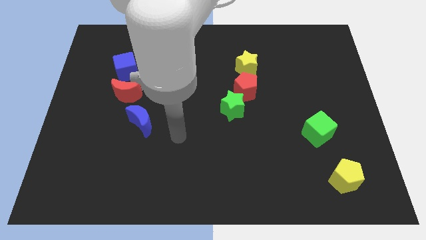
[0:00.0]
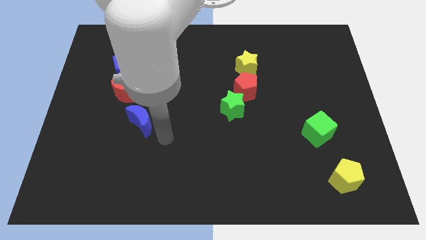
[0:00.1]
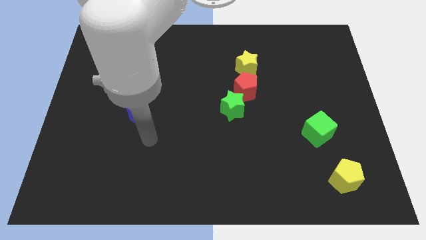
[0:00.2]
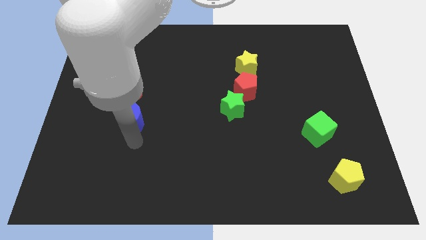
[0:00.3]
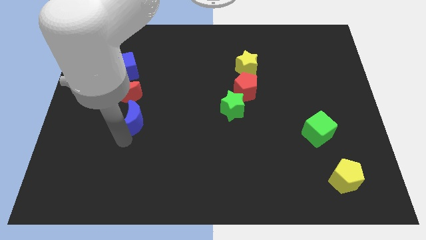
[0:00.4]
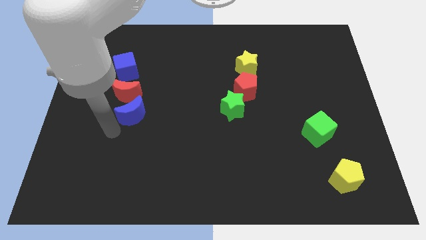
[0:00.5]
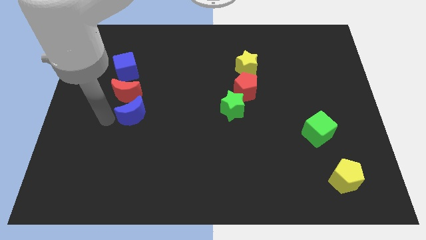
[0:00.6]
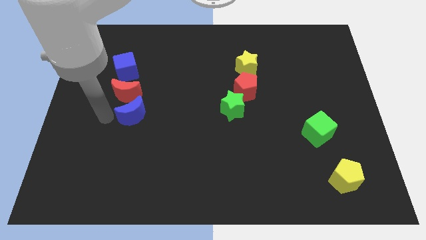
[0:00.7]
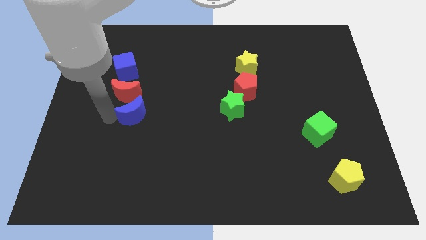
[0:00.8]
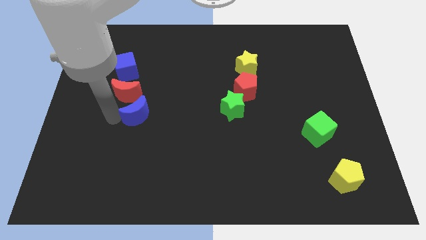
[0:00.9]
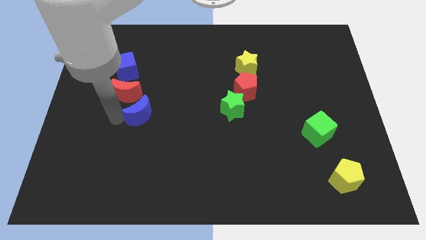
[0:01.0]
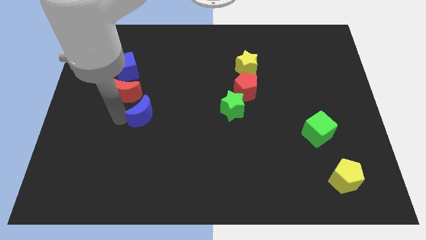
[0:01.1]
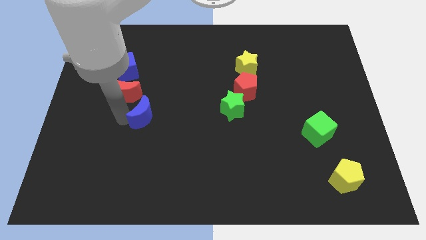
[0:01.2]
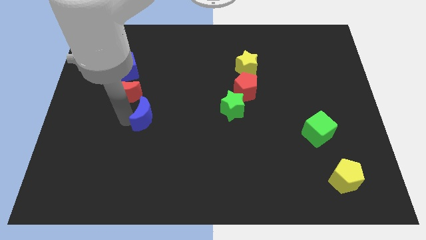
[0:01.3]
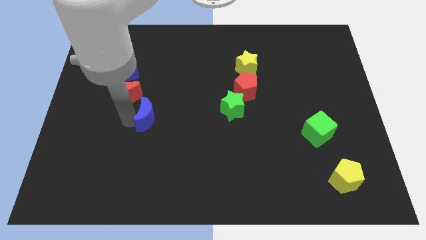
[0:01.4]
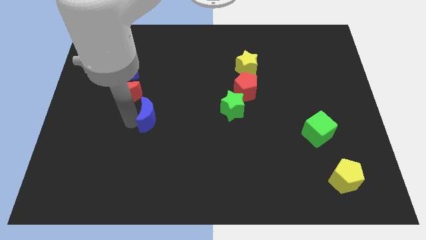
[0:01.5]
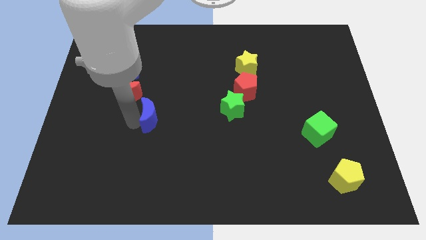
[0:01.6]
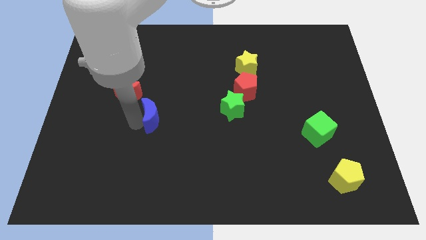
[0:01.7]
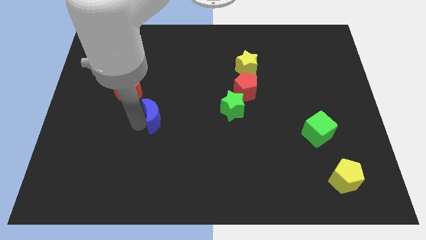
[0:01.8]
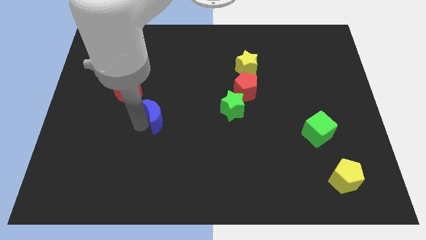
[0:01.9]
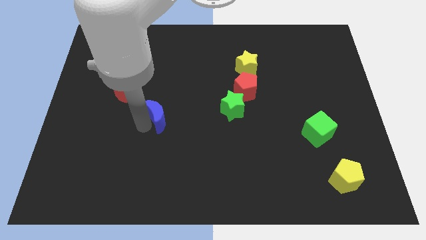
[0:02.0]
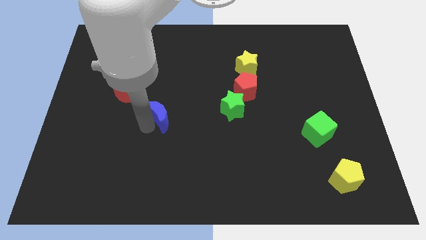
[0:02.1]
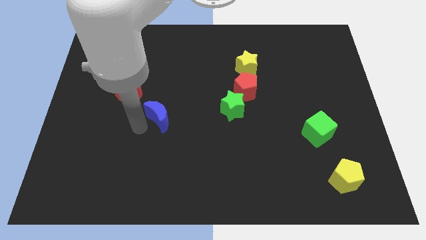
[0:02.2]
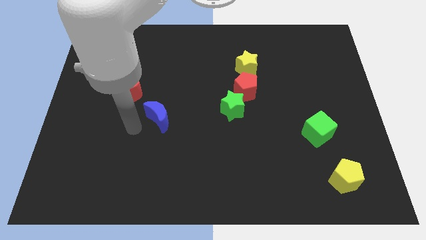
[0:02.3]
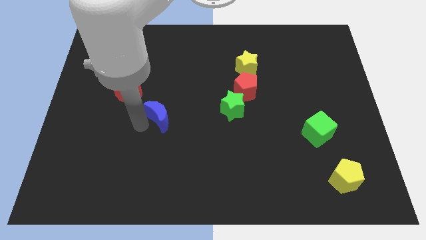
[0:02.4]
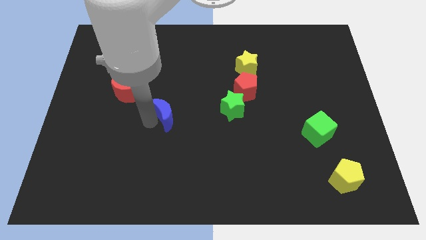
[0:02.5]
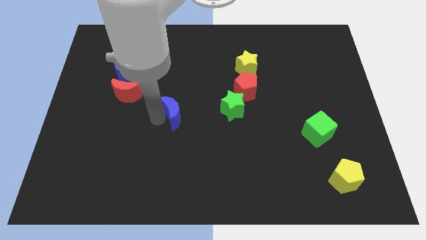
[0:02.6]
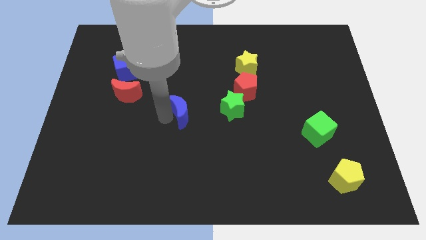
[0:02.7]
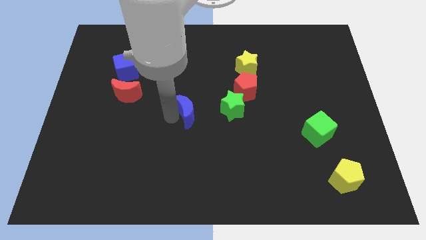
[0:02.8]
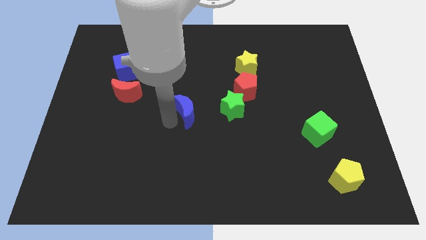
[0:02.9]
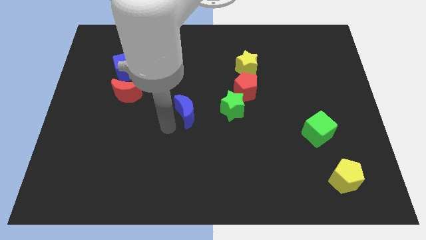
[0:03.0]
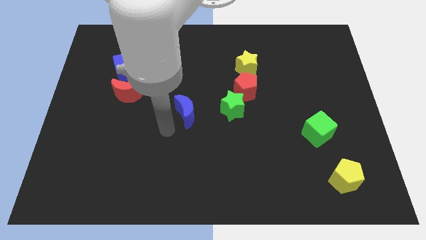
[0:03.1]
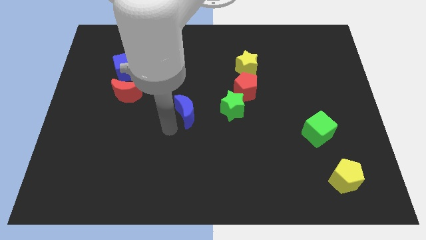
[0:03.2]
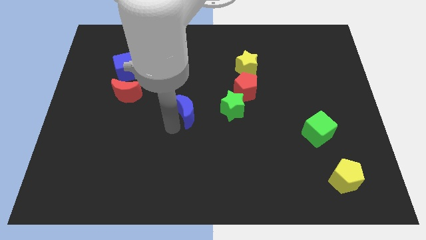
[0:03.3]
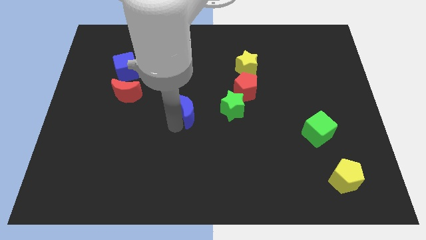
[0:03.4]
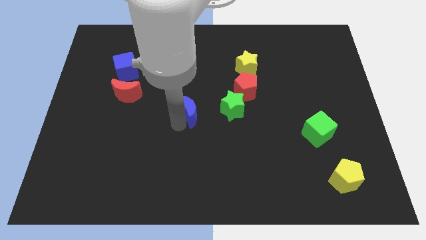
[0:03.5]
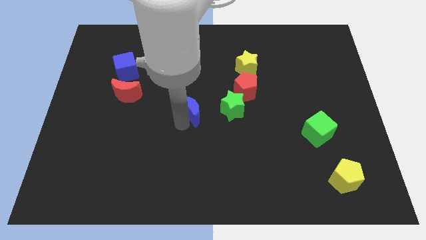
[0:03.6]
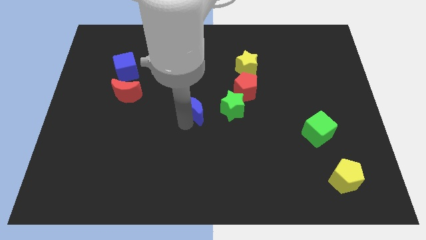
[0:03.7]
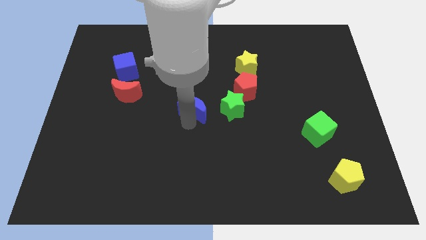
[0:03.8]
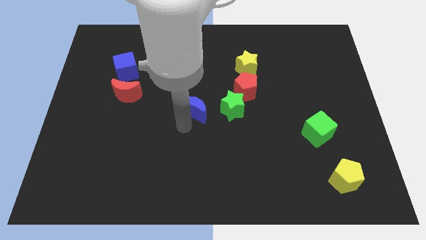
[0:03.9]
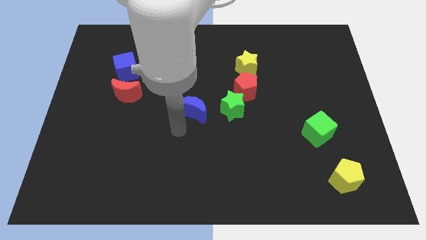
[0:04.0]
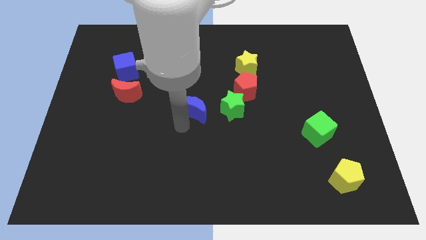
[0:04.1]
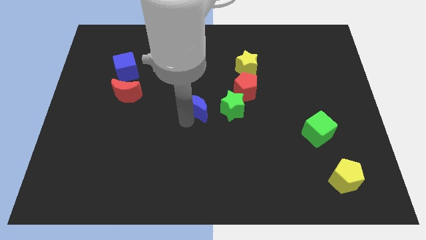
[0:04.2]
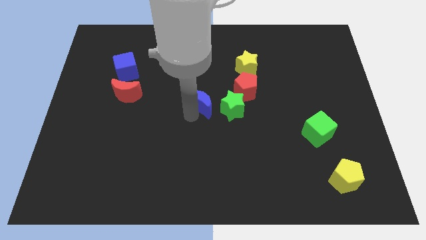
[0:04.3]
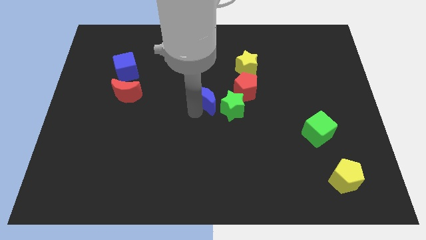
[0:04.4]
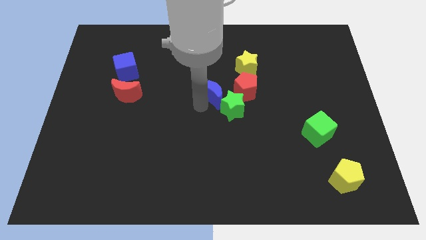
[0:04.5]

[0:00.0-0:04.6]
slide the blue moon diagonally down and to the left of the yellow star

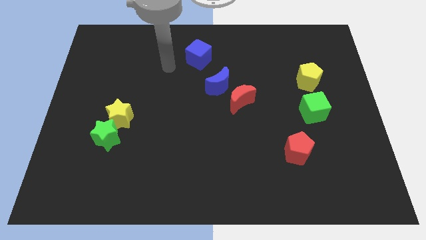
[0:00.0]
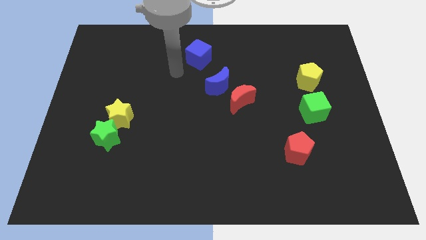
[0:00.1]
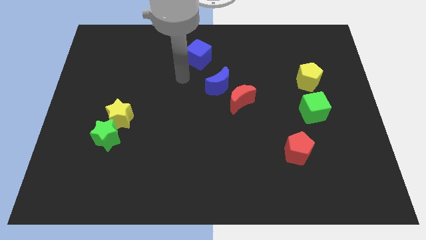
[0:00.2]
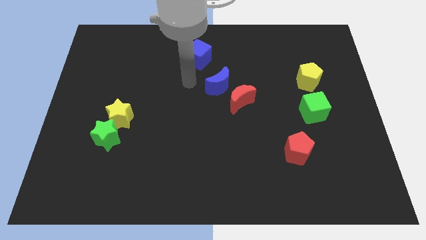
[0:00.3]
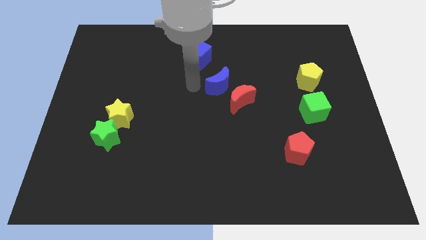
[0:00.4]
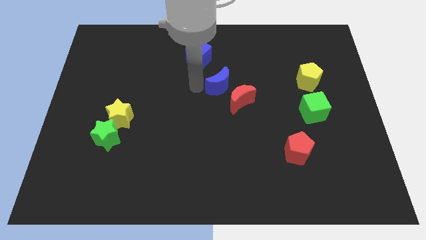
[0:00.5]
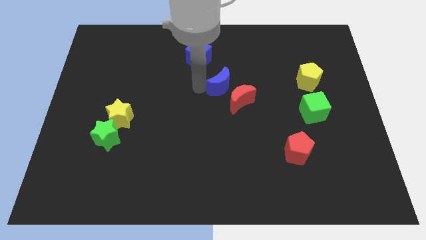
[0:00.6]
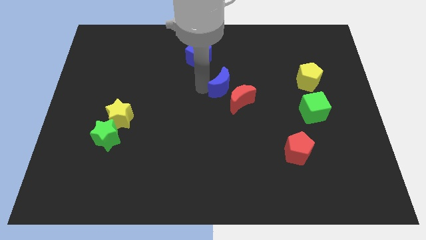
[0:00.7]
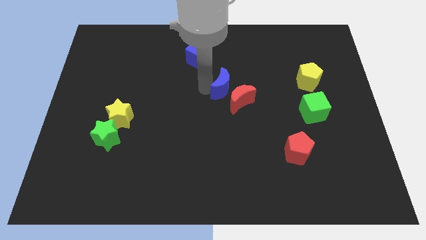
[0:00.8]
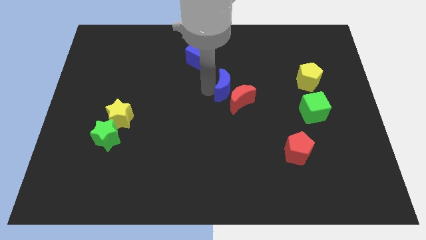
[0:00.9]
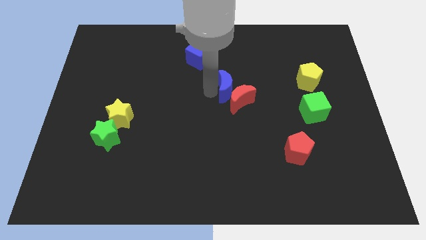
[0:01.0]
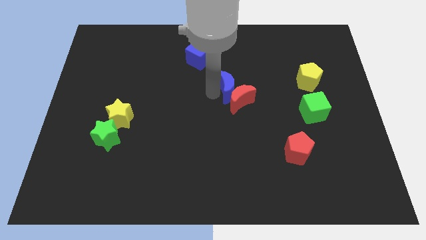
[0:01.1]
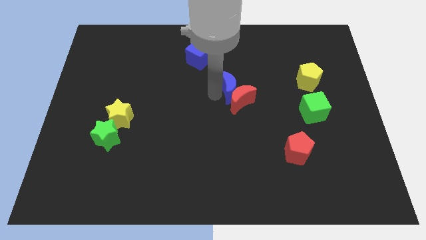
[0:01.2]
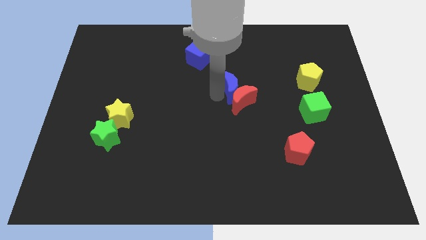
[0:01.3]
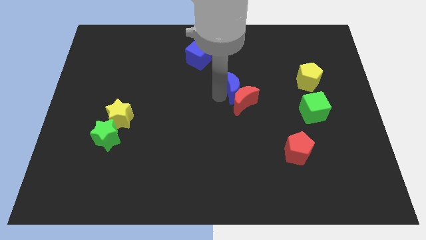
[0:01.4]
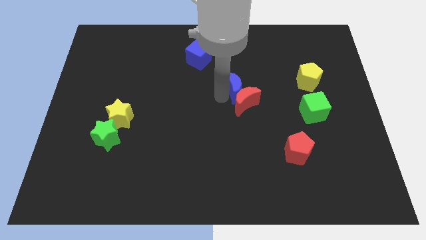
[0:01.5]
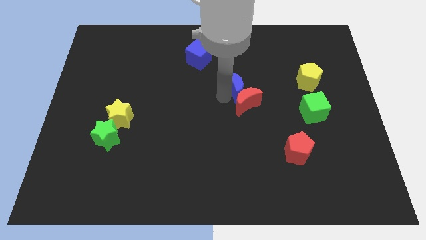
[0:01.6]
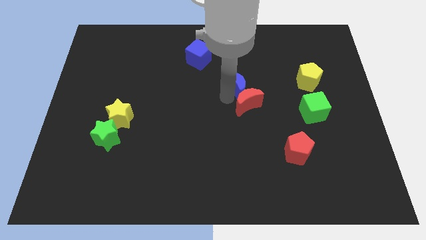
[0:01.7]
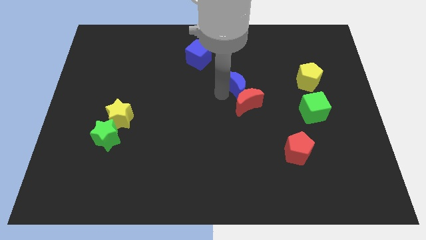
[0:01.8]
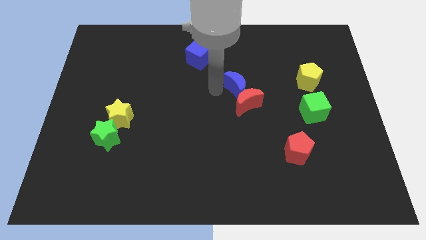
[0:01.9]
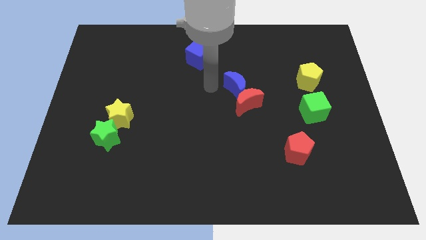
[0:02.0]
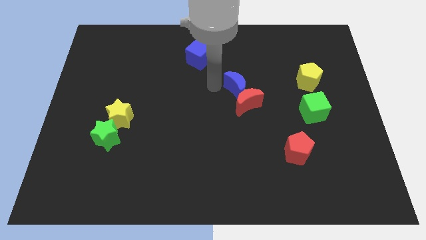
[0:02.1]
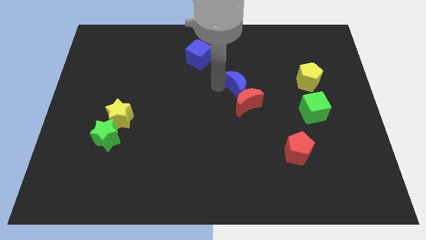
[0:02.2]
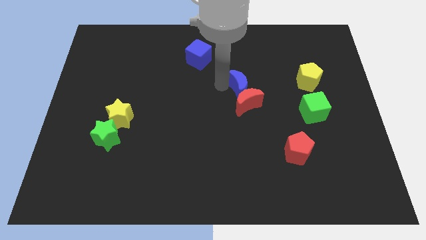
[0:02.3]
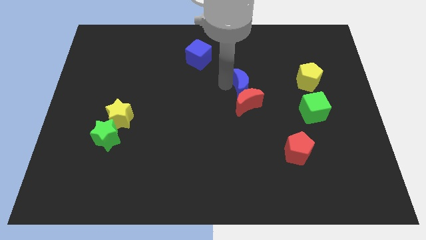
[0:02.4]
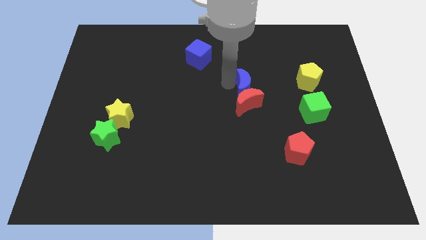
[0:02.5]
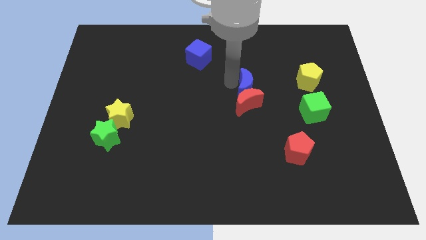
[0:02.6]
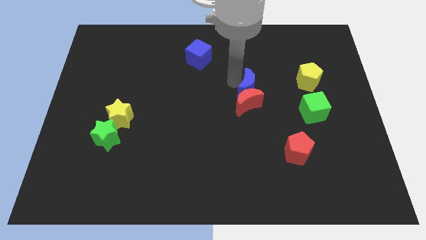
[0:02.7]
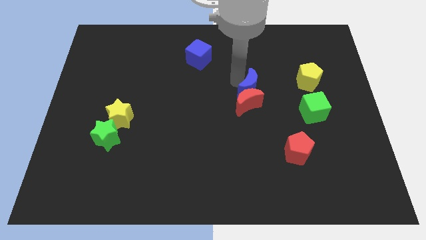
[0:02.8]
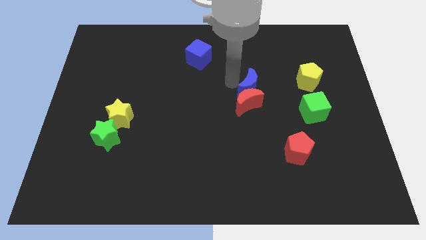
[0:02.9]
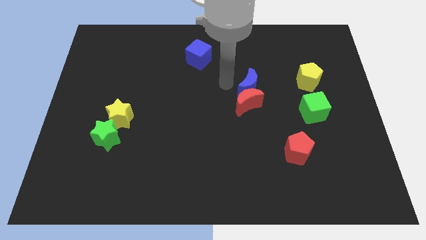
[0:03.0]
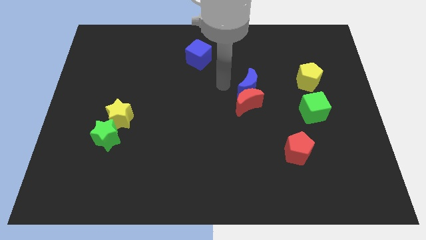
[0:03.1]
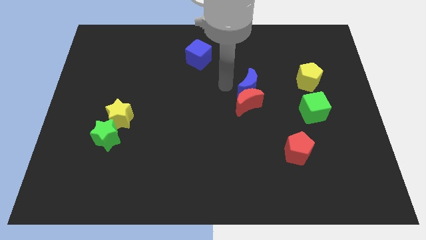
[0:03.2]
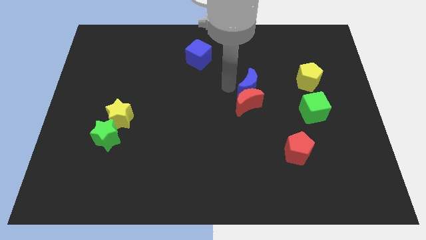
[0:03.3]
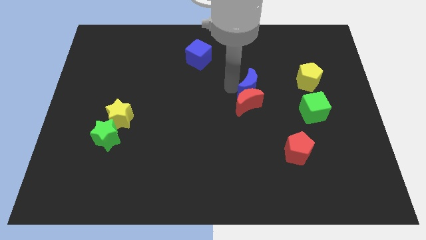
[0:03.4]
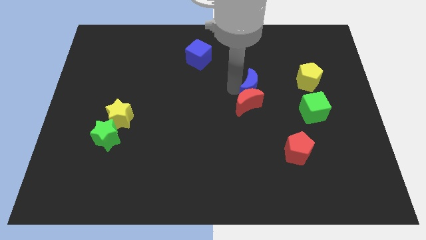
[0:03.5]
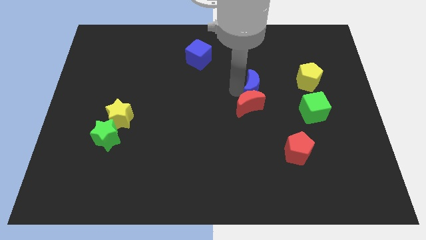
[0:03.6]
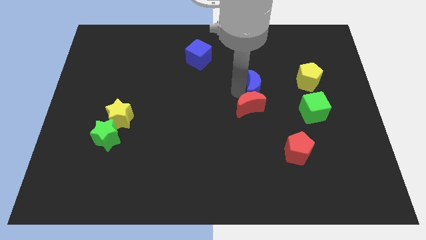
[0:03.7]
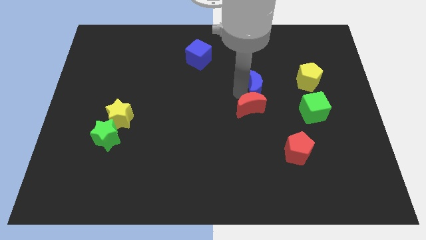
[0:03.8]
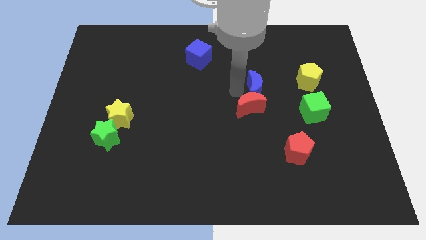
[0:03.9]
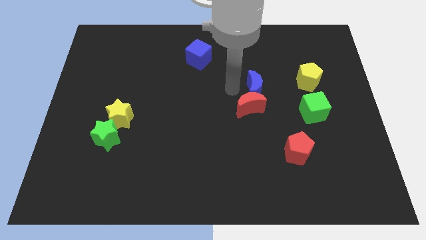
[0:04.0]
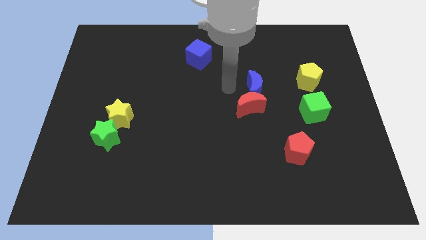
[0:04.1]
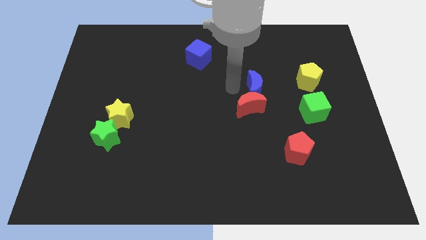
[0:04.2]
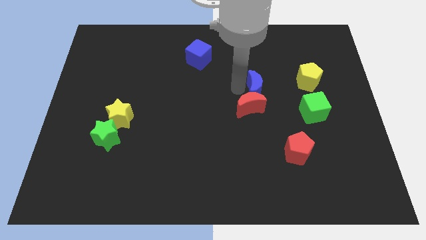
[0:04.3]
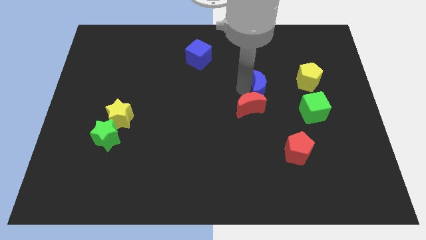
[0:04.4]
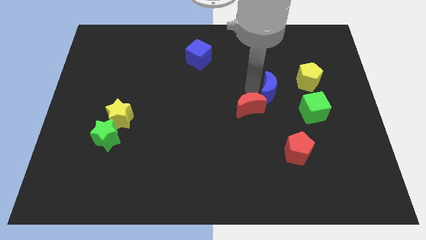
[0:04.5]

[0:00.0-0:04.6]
put the blue moon to the bottom left side of the yellow pentagon
